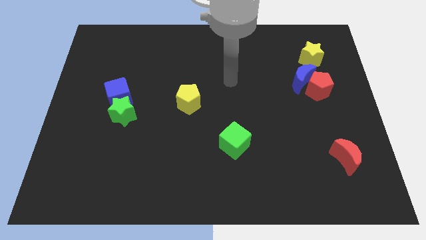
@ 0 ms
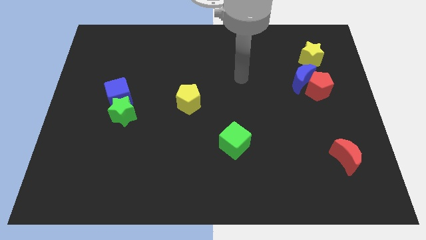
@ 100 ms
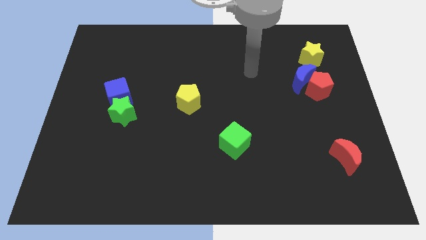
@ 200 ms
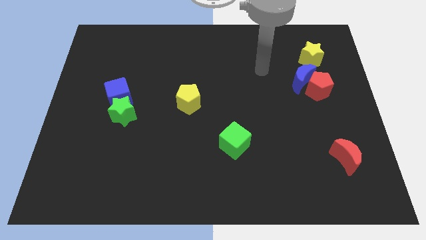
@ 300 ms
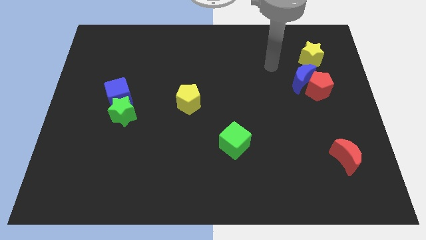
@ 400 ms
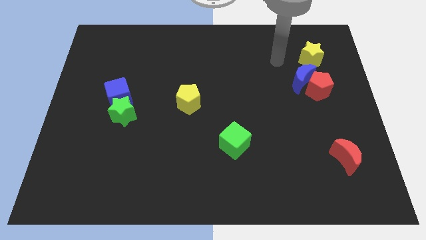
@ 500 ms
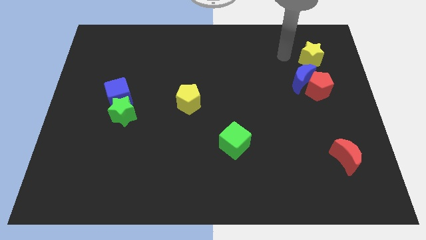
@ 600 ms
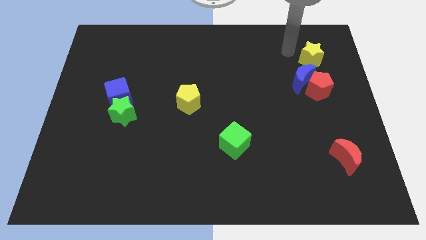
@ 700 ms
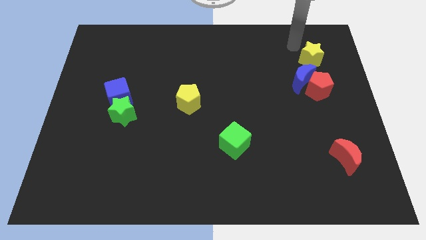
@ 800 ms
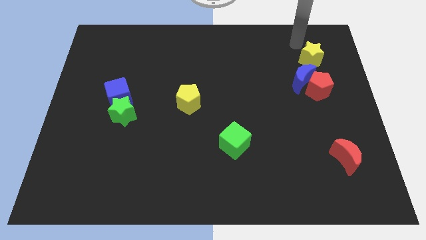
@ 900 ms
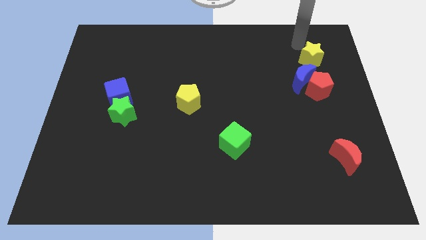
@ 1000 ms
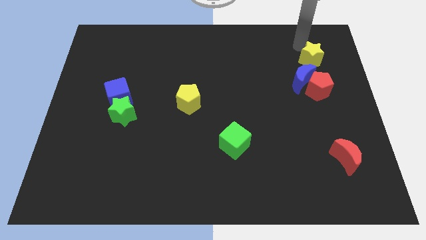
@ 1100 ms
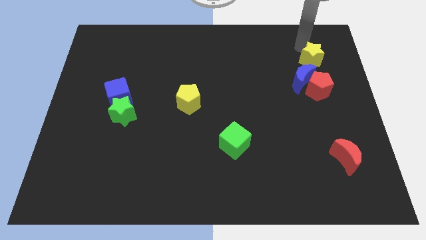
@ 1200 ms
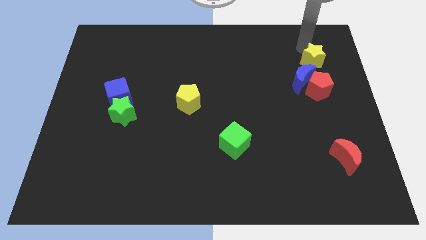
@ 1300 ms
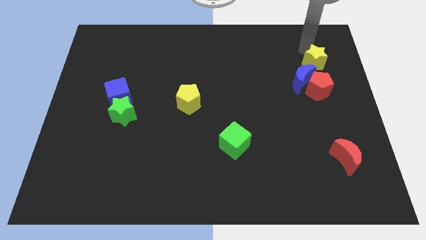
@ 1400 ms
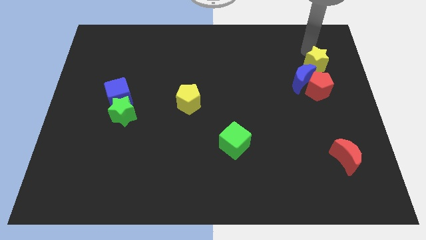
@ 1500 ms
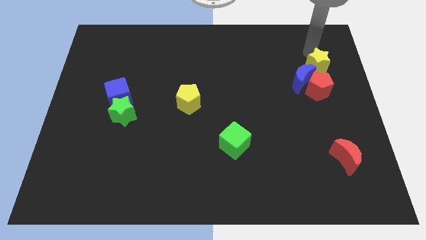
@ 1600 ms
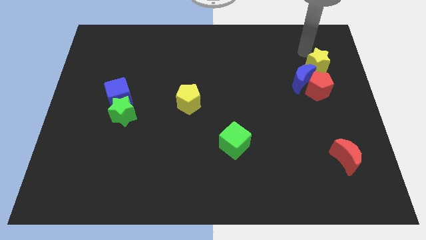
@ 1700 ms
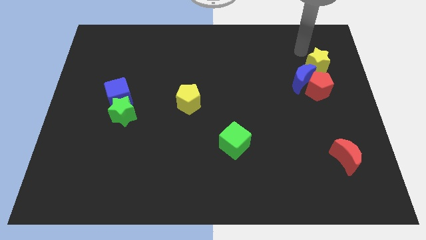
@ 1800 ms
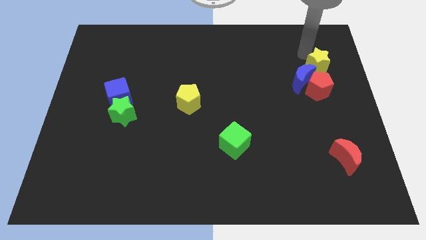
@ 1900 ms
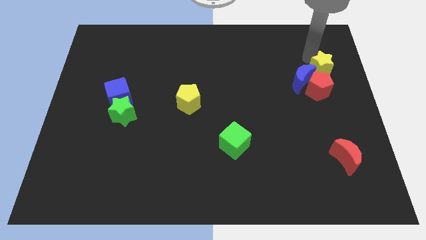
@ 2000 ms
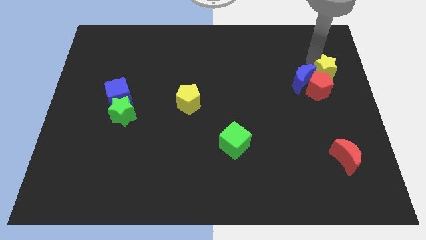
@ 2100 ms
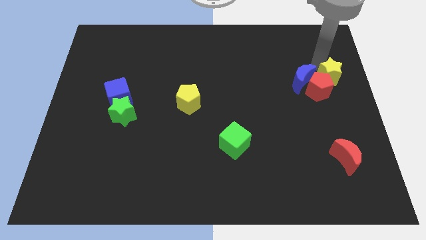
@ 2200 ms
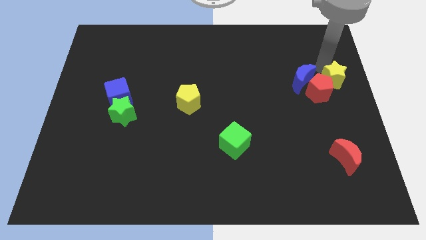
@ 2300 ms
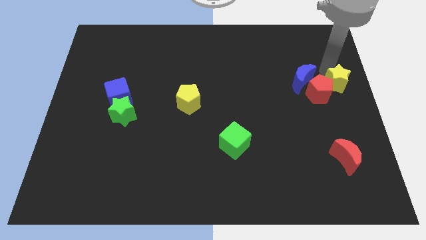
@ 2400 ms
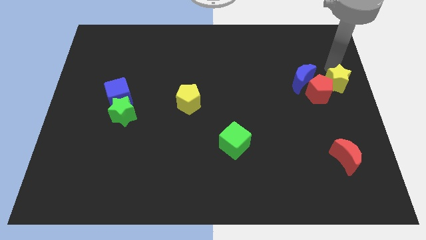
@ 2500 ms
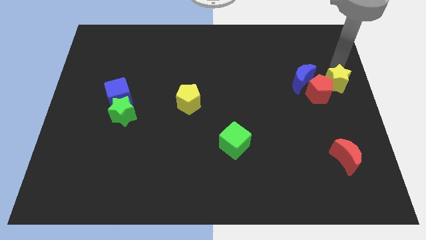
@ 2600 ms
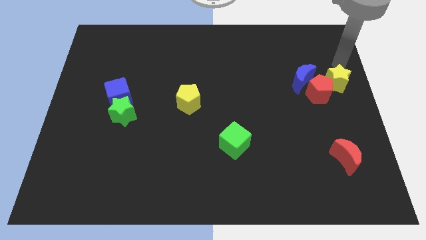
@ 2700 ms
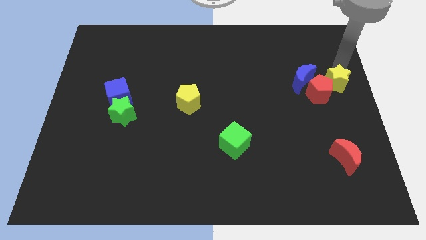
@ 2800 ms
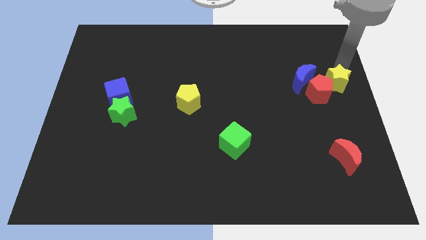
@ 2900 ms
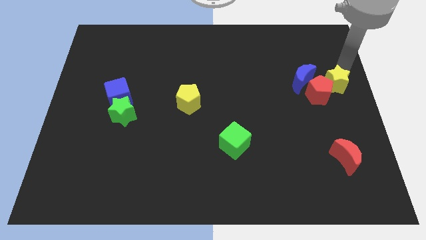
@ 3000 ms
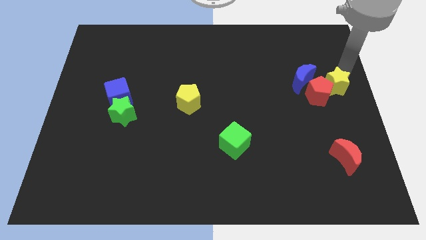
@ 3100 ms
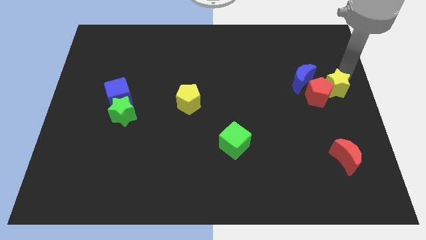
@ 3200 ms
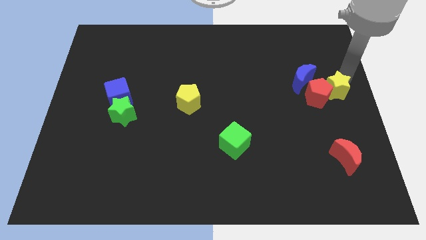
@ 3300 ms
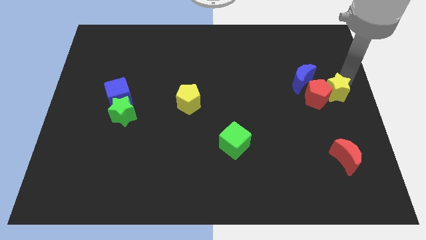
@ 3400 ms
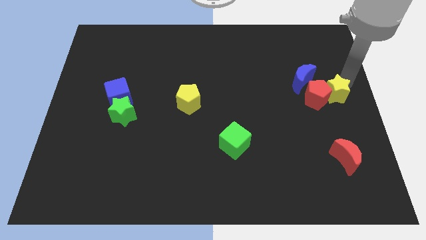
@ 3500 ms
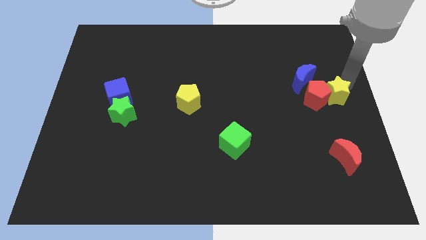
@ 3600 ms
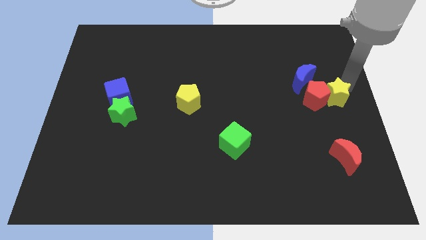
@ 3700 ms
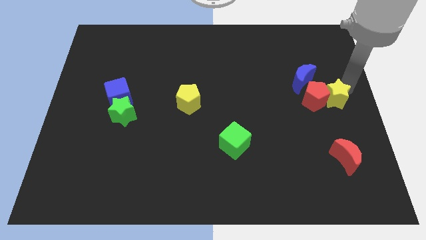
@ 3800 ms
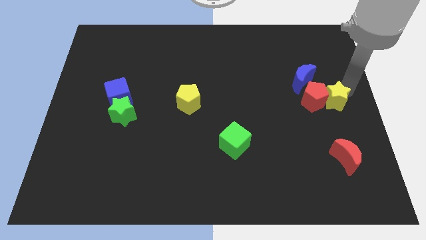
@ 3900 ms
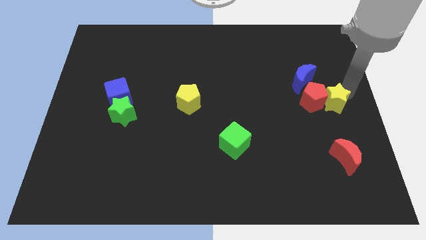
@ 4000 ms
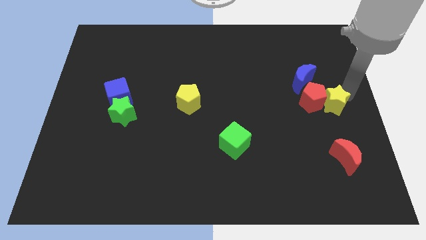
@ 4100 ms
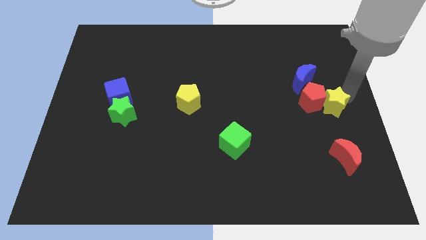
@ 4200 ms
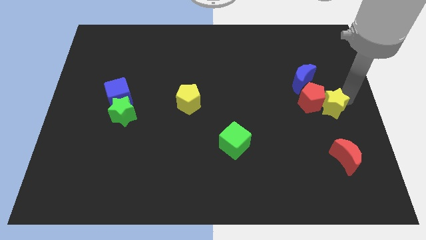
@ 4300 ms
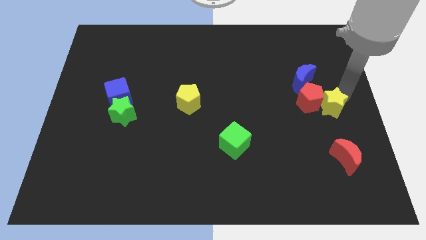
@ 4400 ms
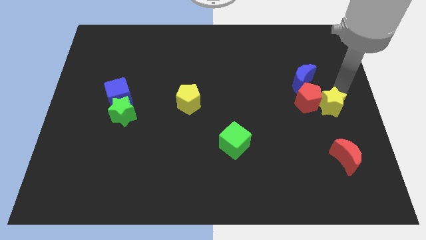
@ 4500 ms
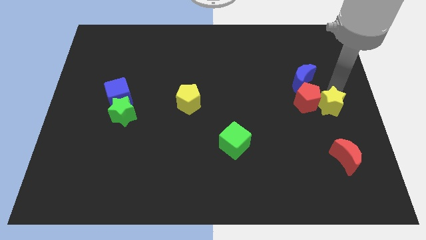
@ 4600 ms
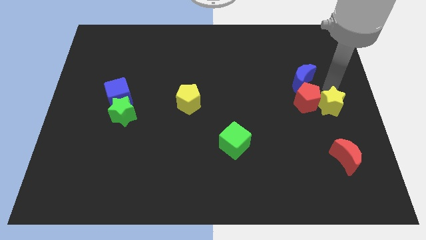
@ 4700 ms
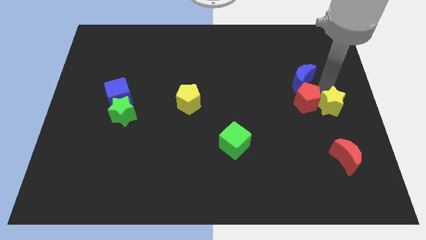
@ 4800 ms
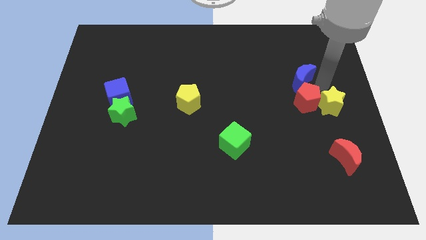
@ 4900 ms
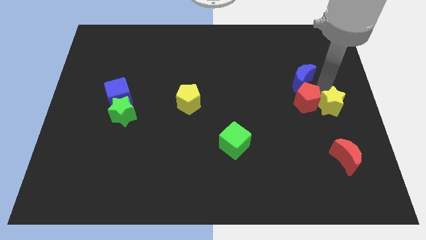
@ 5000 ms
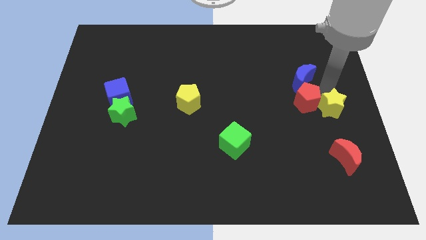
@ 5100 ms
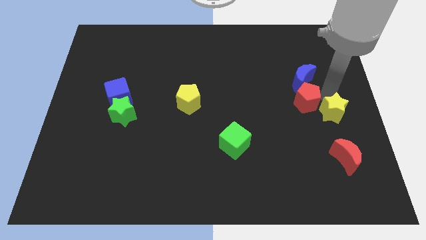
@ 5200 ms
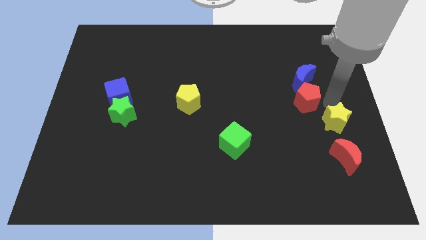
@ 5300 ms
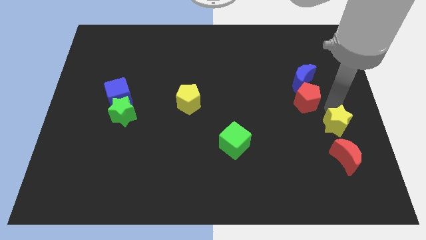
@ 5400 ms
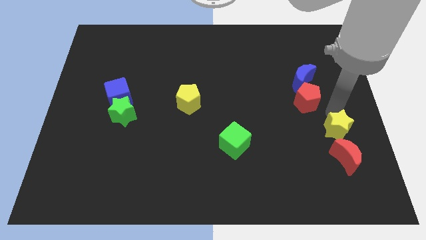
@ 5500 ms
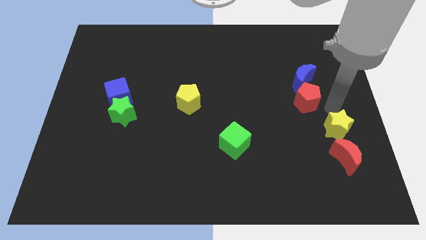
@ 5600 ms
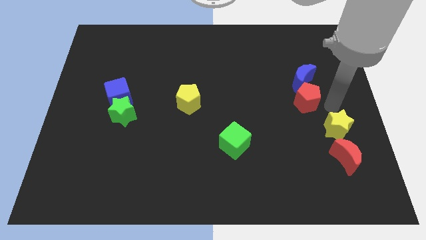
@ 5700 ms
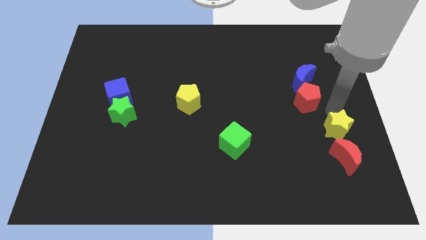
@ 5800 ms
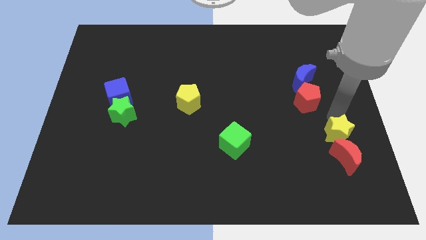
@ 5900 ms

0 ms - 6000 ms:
move the yellow star towards the red moon

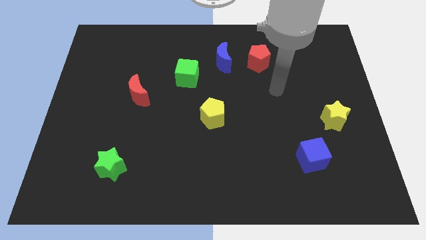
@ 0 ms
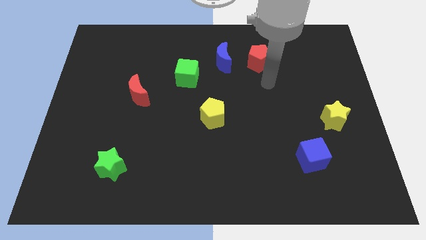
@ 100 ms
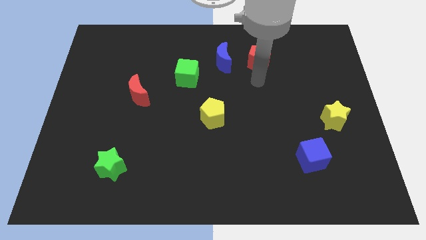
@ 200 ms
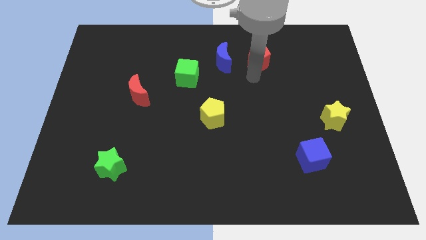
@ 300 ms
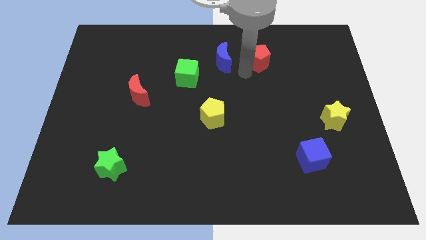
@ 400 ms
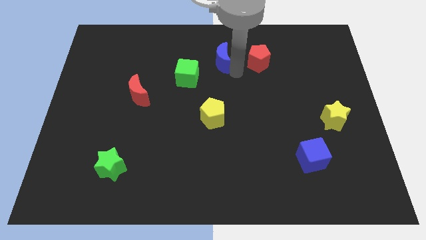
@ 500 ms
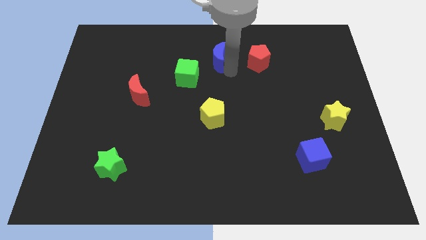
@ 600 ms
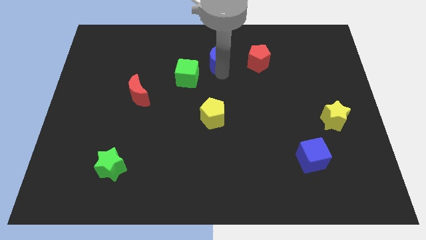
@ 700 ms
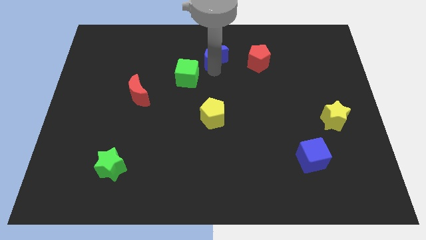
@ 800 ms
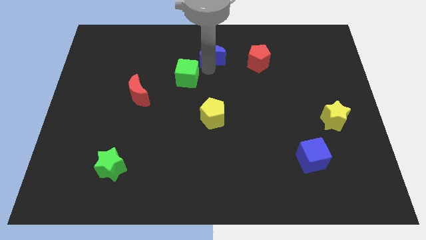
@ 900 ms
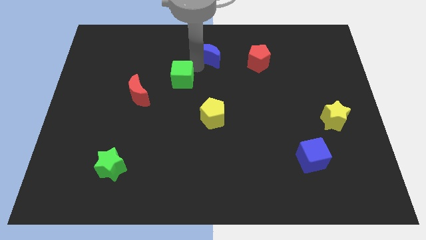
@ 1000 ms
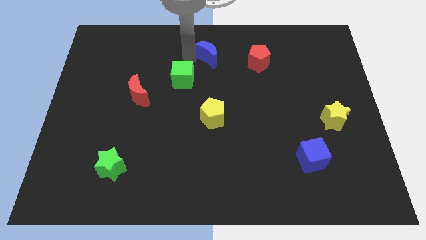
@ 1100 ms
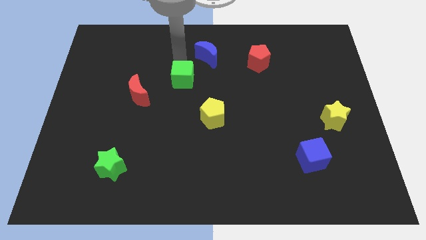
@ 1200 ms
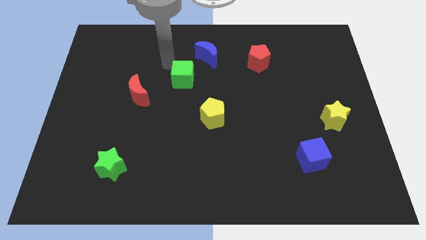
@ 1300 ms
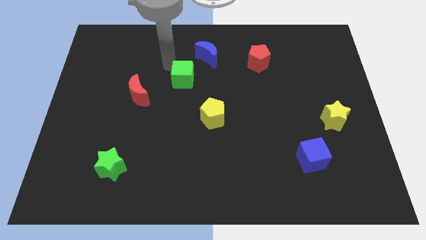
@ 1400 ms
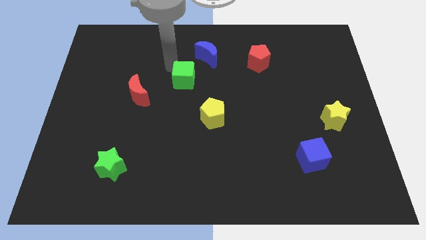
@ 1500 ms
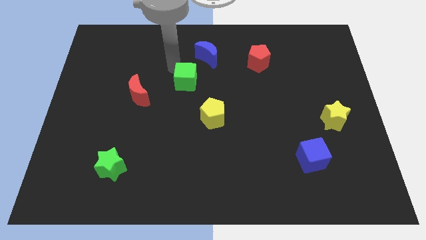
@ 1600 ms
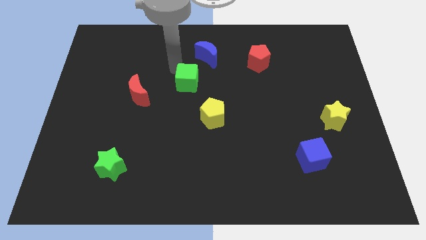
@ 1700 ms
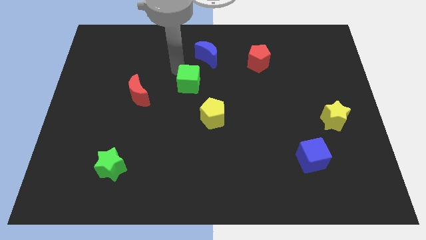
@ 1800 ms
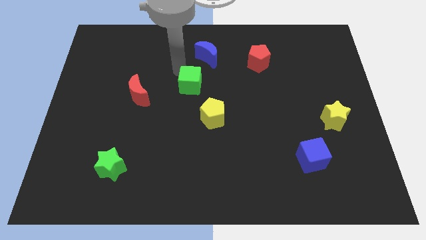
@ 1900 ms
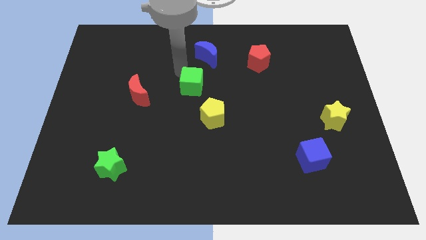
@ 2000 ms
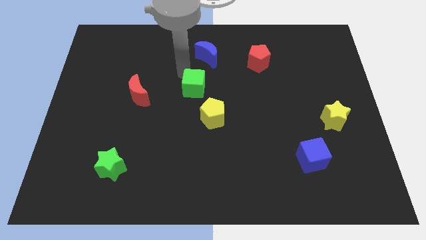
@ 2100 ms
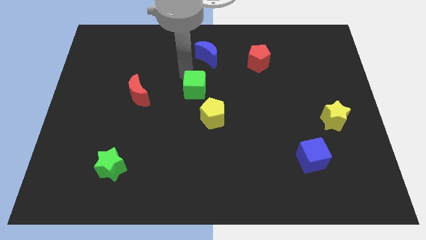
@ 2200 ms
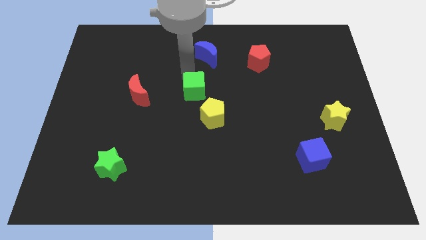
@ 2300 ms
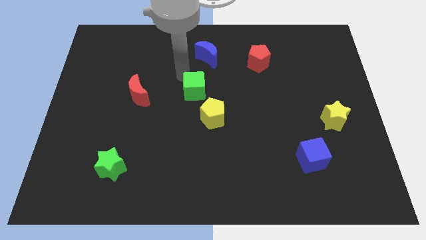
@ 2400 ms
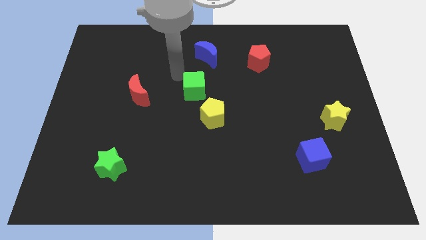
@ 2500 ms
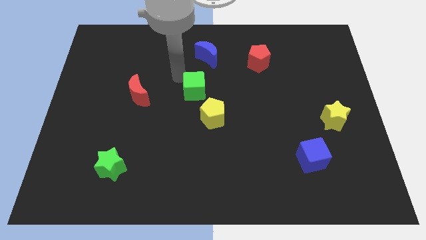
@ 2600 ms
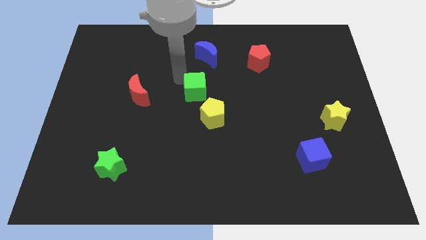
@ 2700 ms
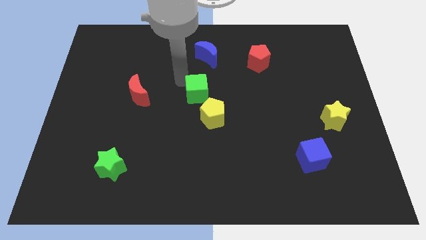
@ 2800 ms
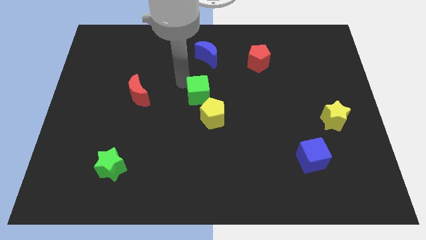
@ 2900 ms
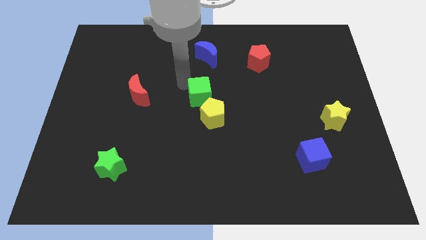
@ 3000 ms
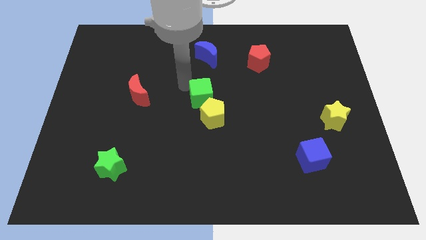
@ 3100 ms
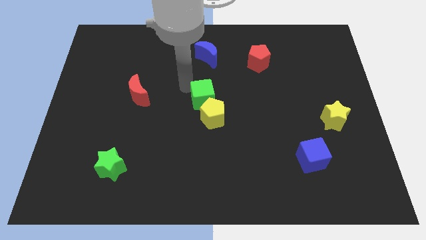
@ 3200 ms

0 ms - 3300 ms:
put the green cube towards the yellow pentagon

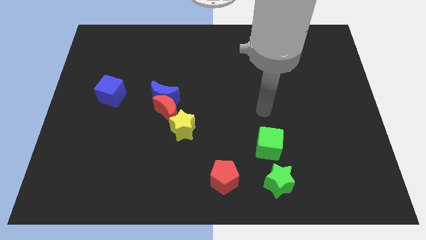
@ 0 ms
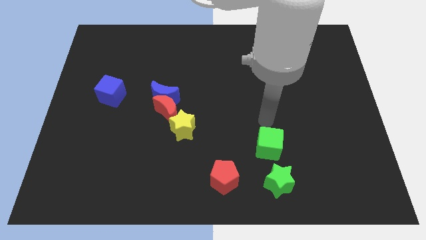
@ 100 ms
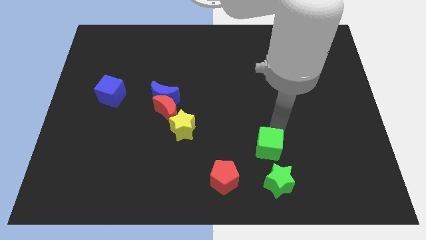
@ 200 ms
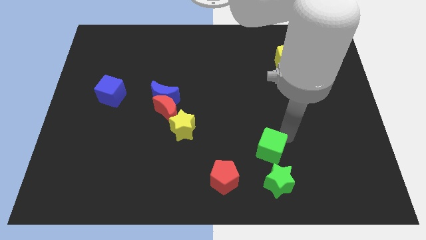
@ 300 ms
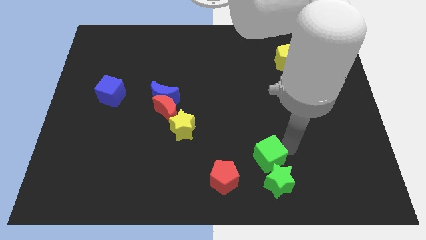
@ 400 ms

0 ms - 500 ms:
slide the green star towards the green cube
